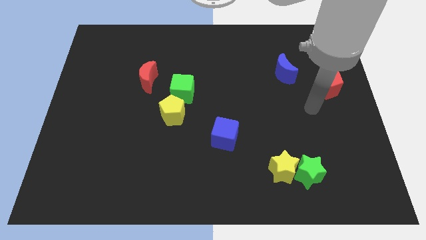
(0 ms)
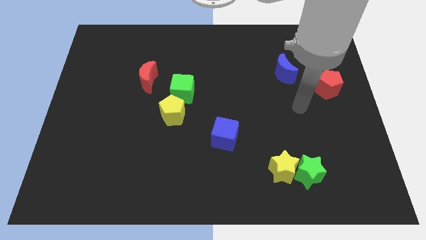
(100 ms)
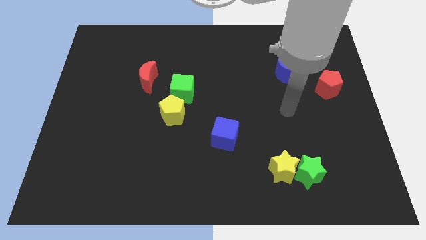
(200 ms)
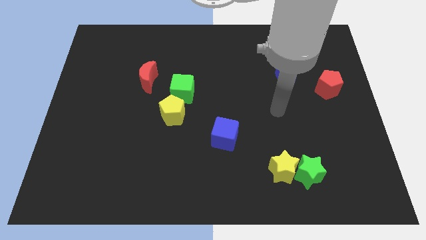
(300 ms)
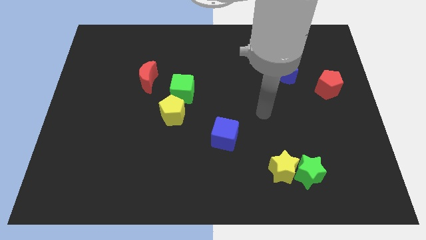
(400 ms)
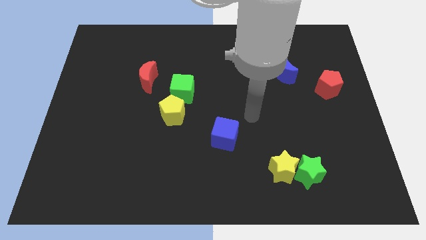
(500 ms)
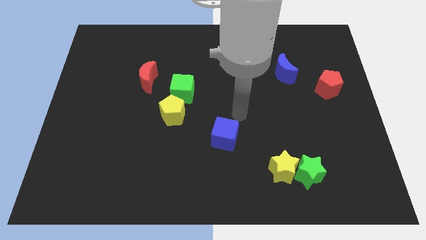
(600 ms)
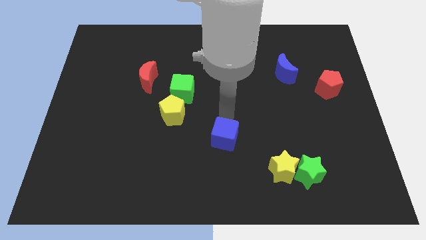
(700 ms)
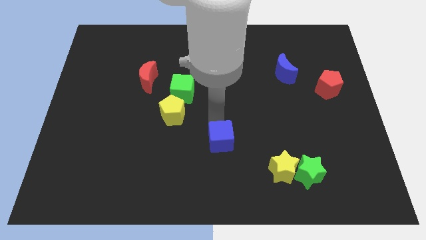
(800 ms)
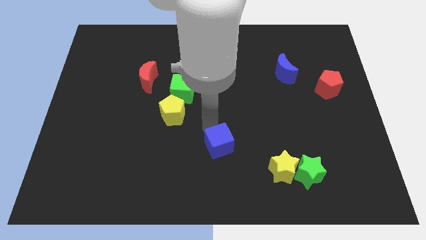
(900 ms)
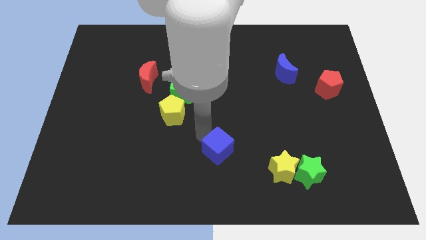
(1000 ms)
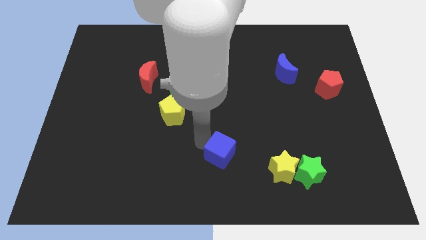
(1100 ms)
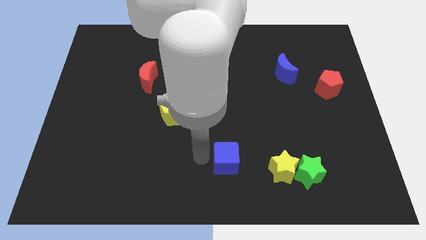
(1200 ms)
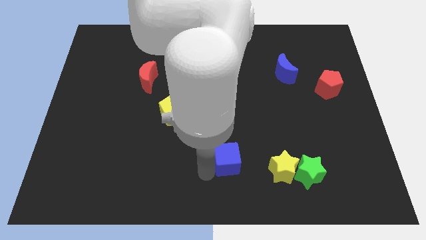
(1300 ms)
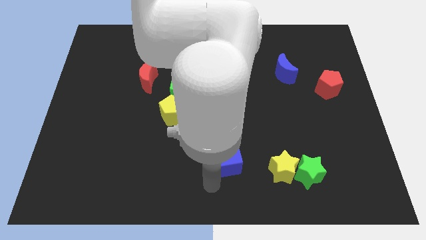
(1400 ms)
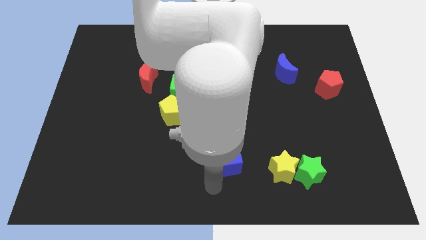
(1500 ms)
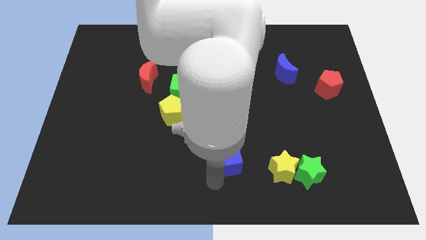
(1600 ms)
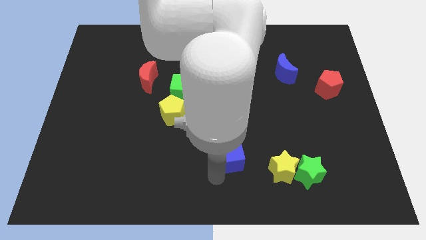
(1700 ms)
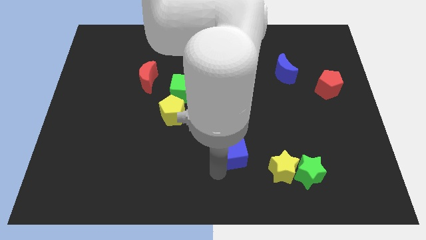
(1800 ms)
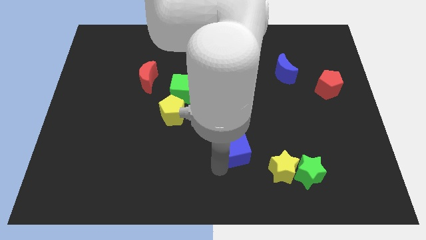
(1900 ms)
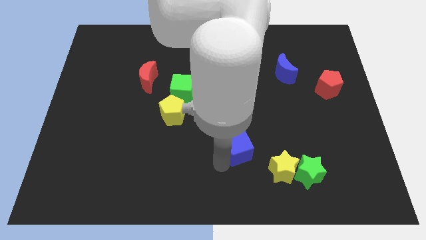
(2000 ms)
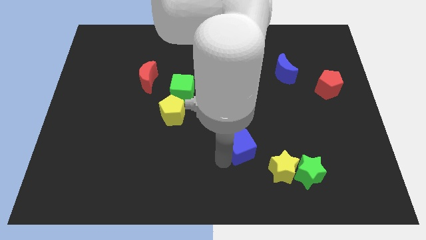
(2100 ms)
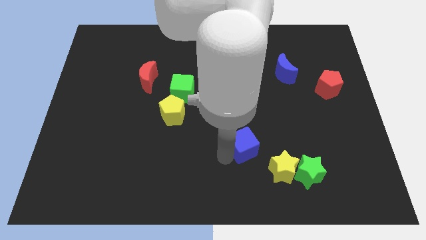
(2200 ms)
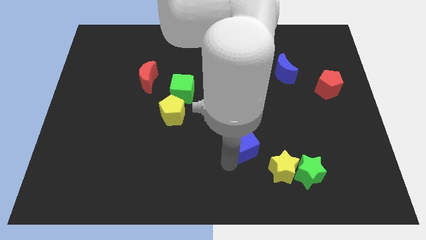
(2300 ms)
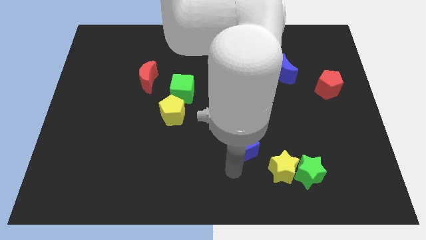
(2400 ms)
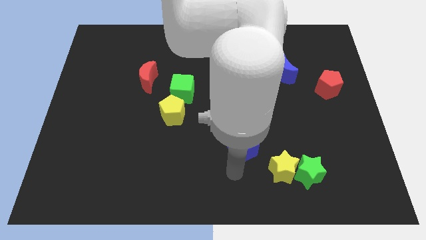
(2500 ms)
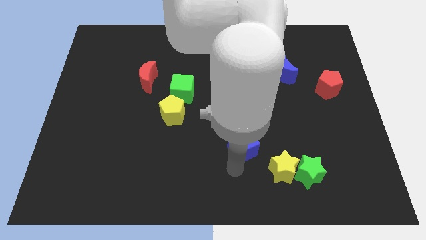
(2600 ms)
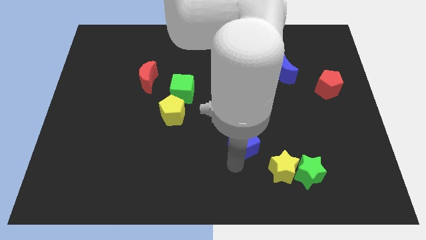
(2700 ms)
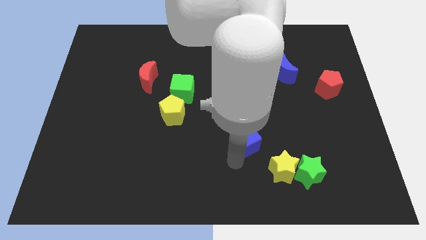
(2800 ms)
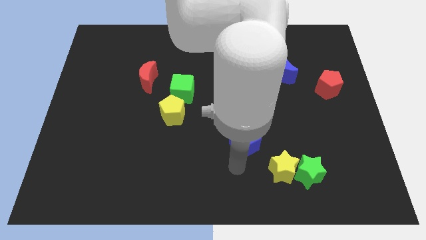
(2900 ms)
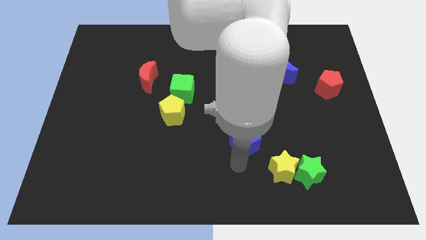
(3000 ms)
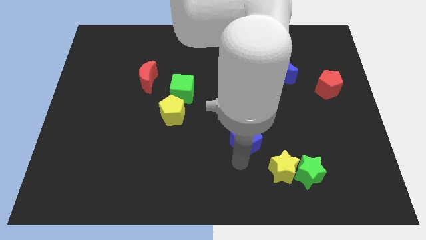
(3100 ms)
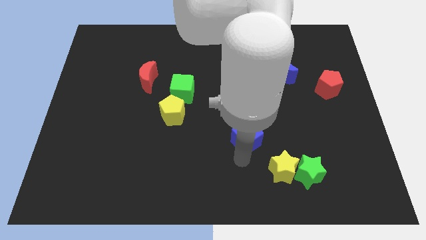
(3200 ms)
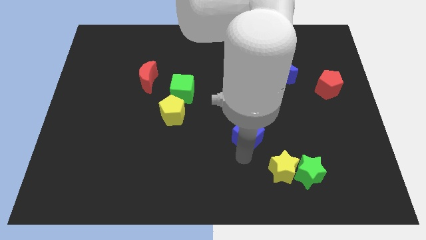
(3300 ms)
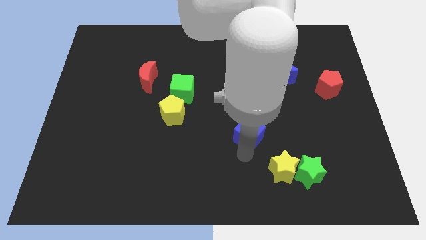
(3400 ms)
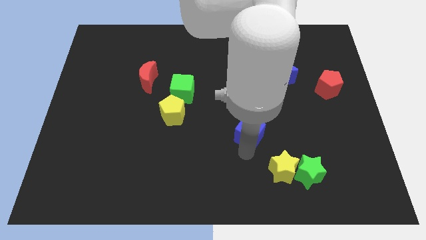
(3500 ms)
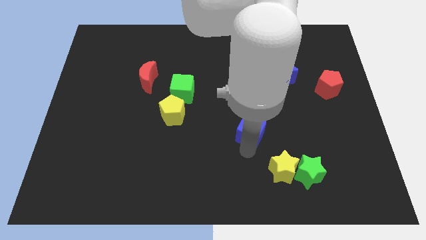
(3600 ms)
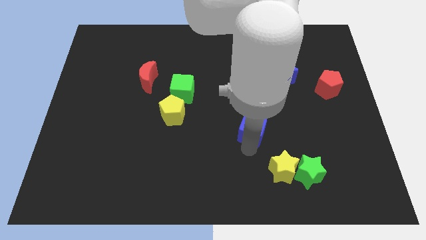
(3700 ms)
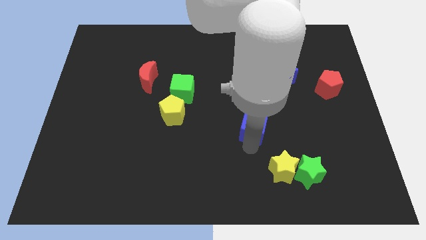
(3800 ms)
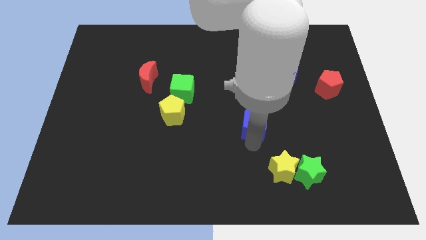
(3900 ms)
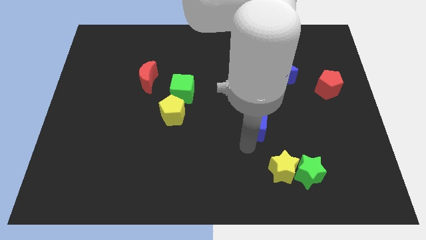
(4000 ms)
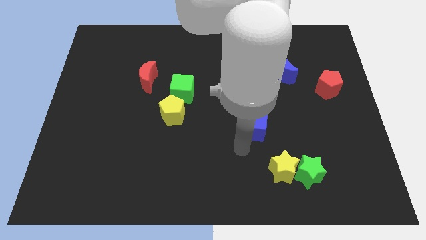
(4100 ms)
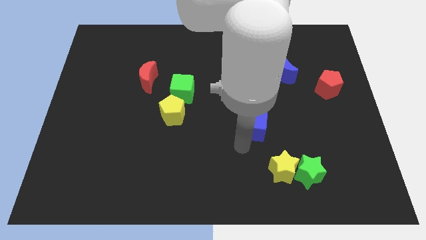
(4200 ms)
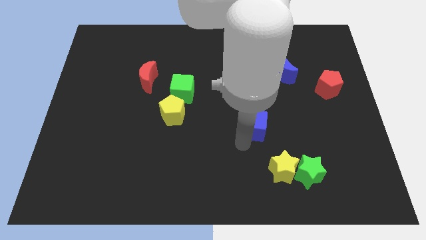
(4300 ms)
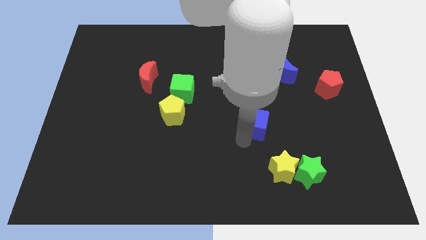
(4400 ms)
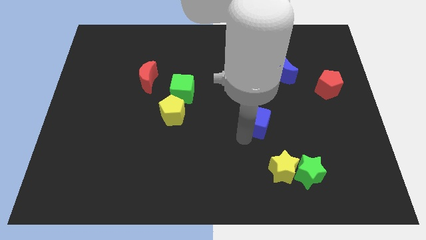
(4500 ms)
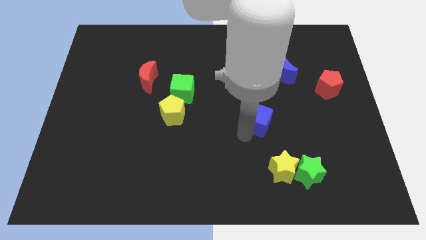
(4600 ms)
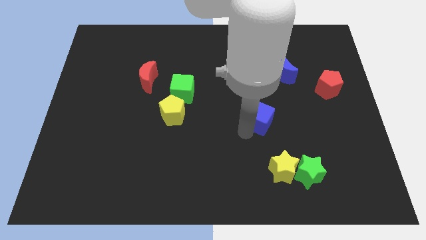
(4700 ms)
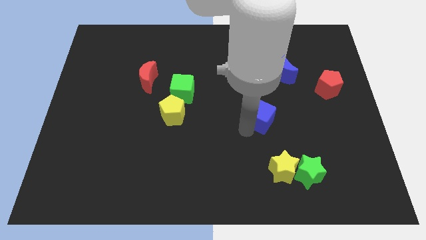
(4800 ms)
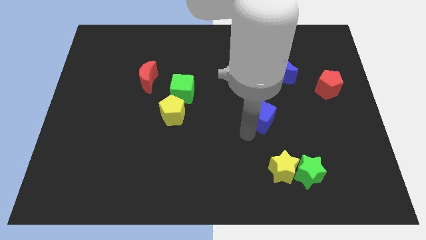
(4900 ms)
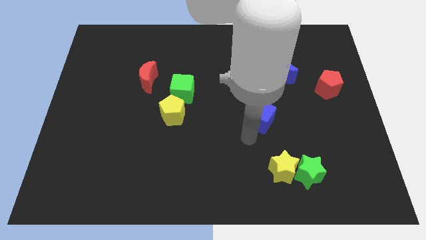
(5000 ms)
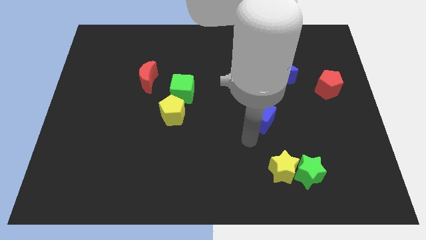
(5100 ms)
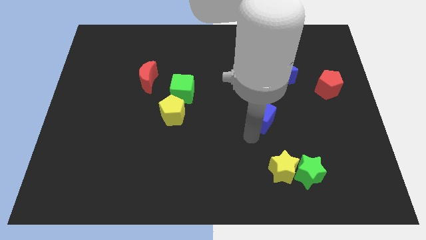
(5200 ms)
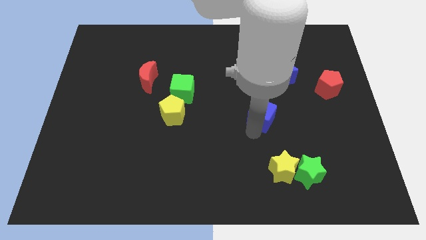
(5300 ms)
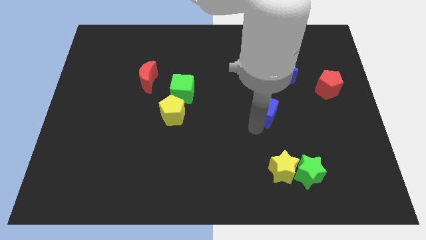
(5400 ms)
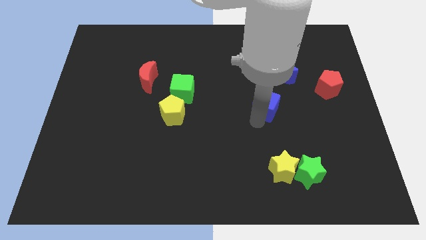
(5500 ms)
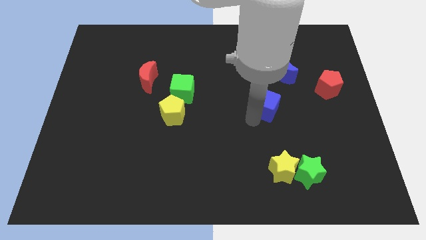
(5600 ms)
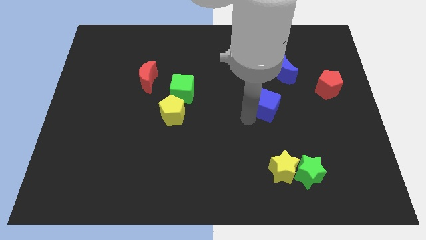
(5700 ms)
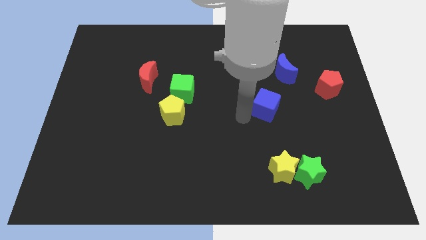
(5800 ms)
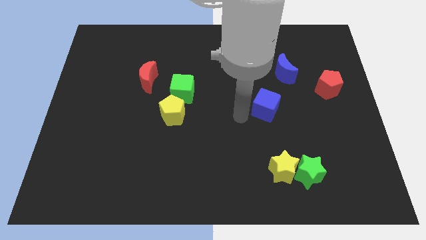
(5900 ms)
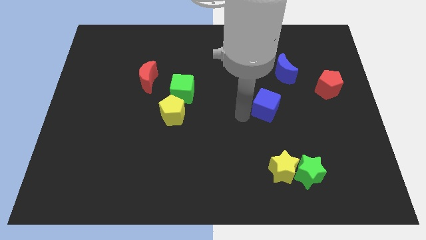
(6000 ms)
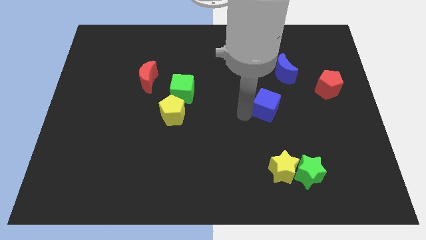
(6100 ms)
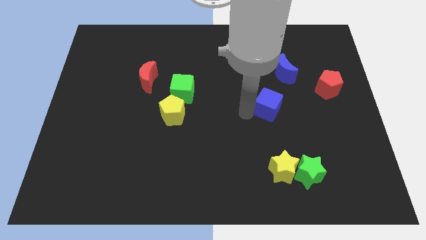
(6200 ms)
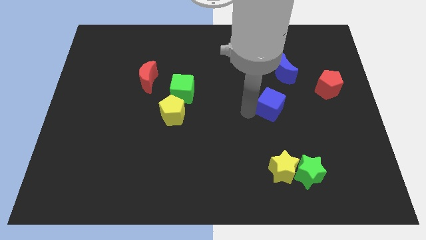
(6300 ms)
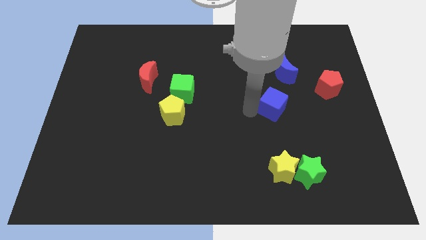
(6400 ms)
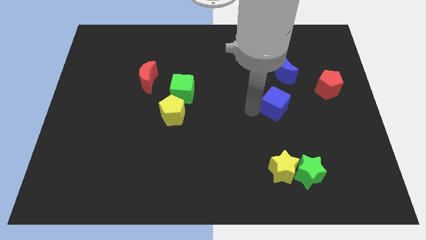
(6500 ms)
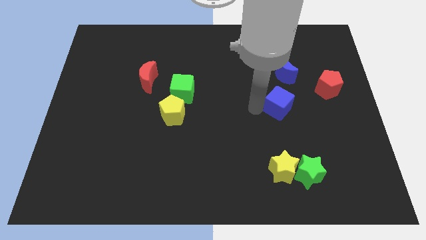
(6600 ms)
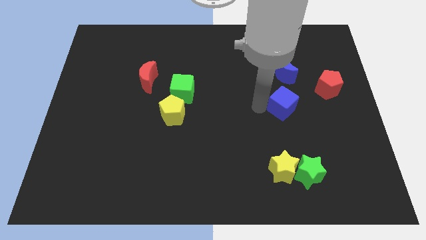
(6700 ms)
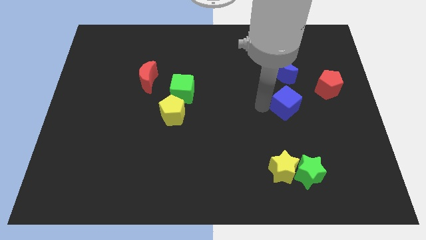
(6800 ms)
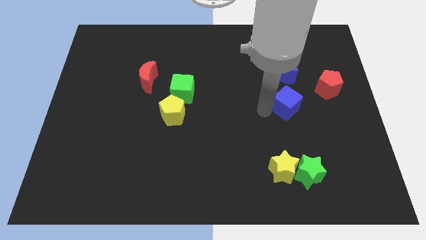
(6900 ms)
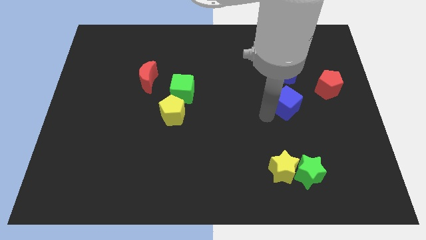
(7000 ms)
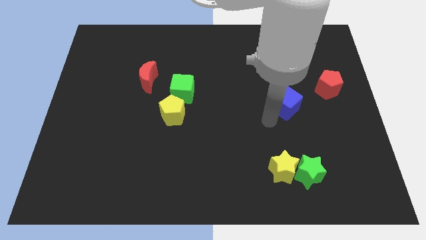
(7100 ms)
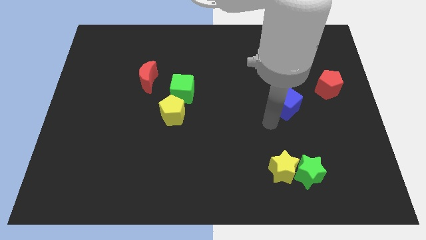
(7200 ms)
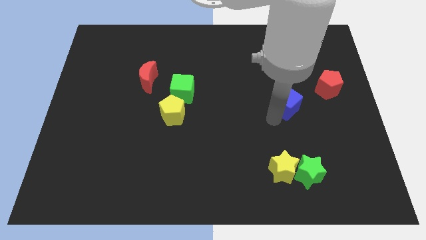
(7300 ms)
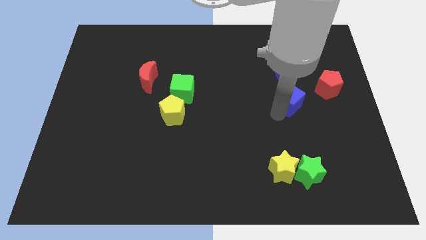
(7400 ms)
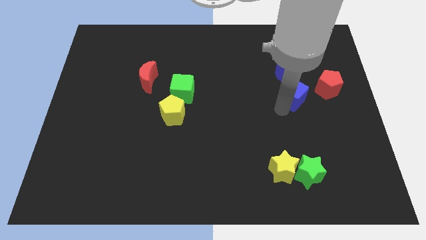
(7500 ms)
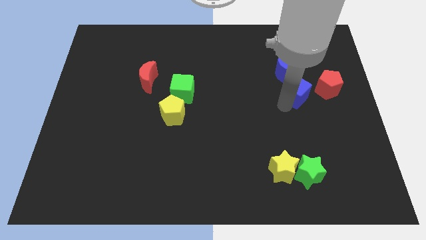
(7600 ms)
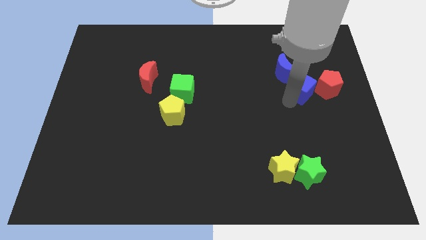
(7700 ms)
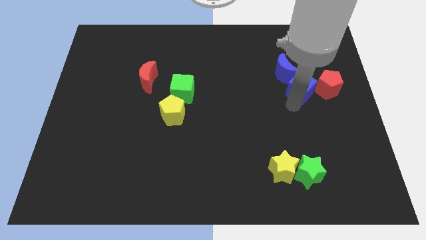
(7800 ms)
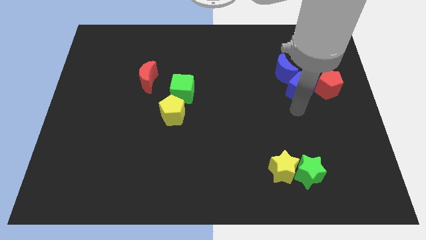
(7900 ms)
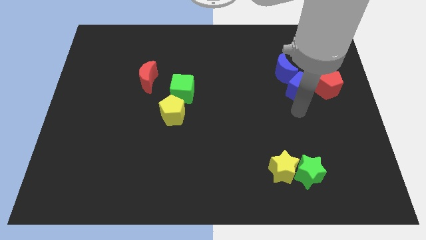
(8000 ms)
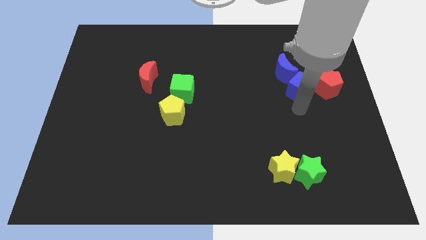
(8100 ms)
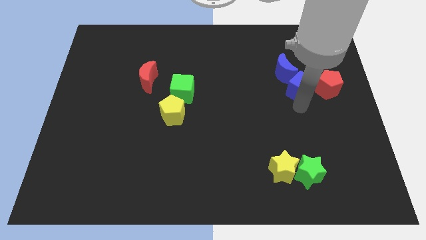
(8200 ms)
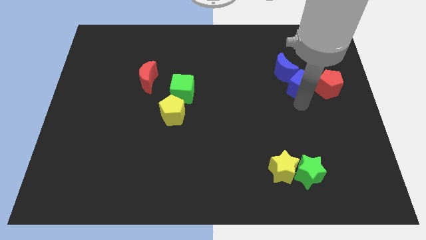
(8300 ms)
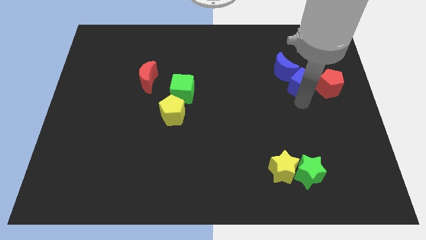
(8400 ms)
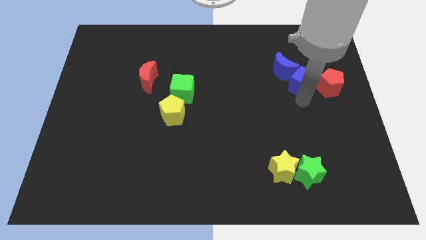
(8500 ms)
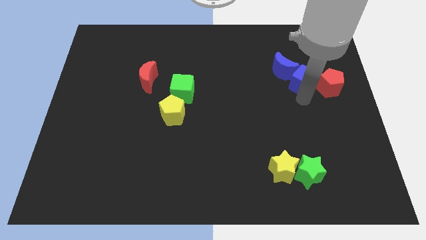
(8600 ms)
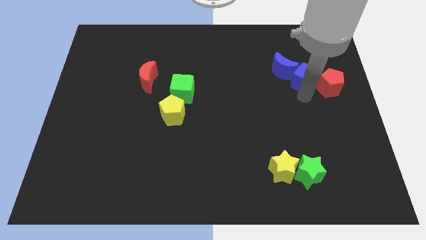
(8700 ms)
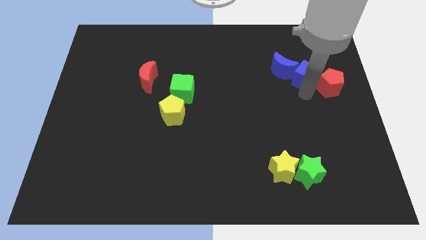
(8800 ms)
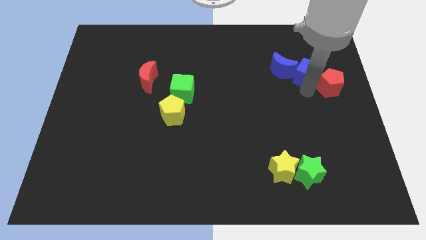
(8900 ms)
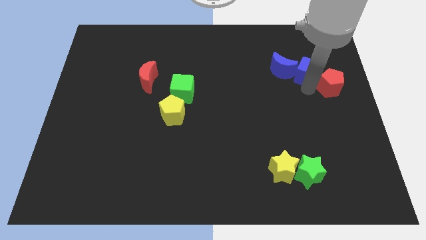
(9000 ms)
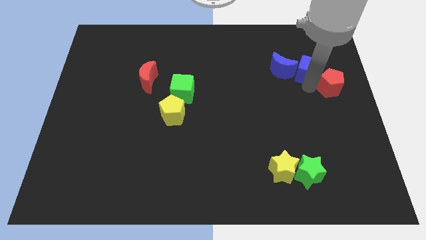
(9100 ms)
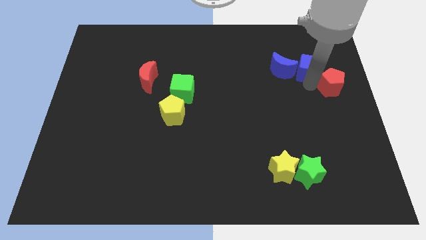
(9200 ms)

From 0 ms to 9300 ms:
slide the blue cube diagonally up and to the right of the blue moon
